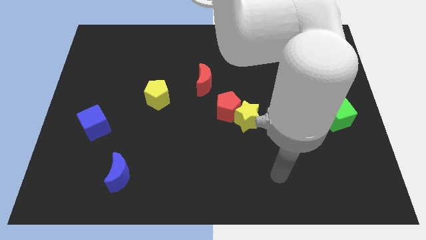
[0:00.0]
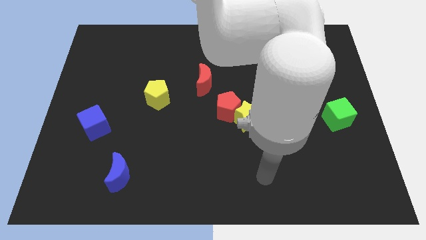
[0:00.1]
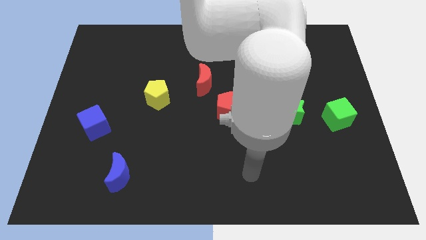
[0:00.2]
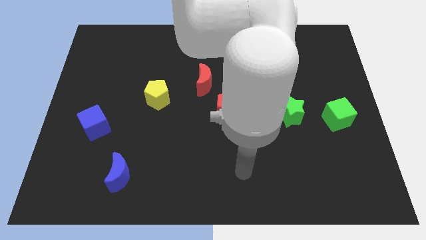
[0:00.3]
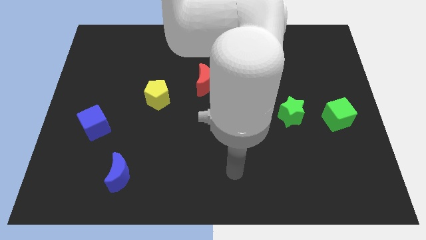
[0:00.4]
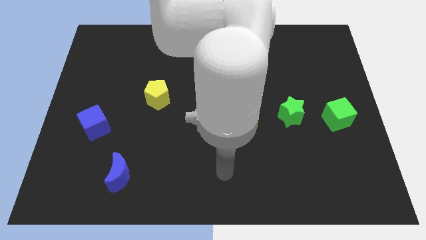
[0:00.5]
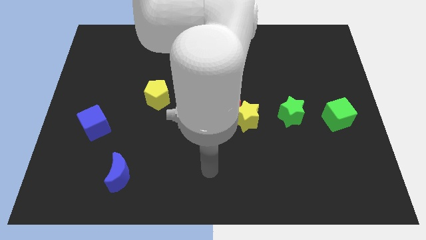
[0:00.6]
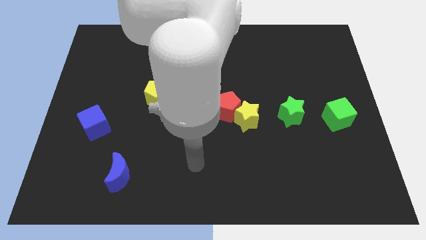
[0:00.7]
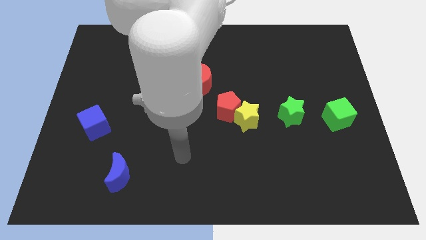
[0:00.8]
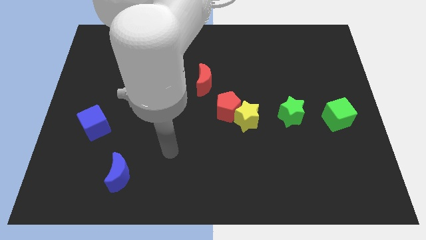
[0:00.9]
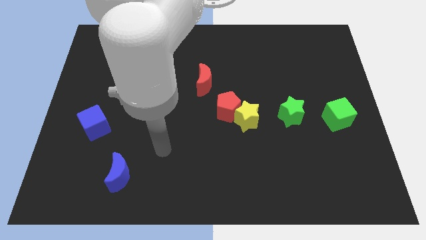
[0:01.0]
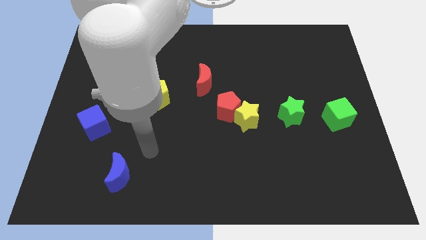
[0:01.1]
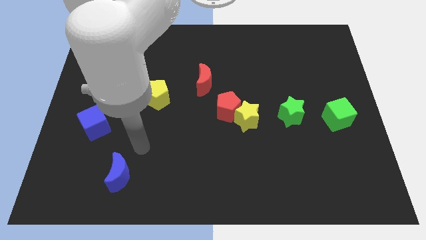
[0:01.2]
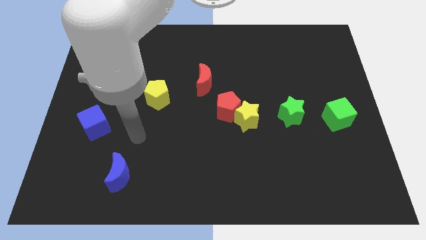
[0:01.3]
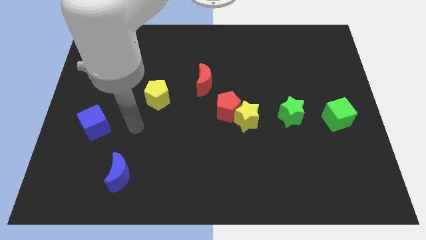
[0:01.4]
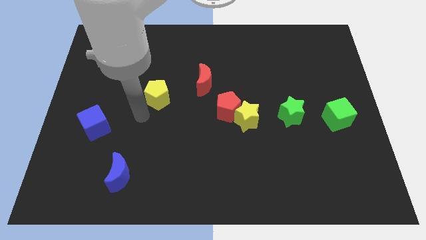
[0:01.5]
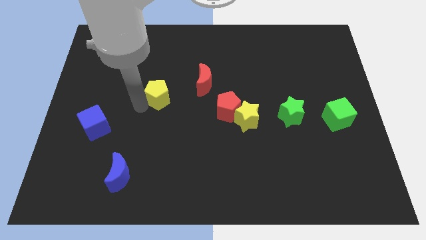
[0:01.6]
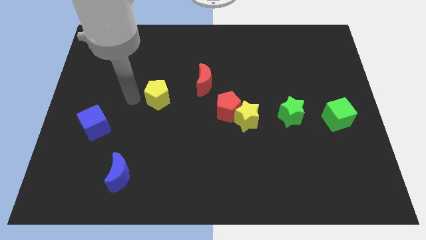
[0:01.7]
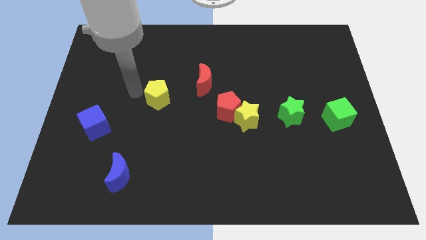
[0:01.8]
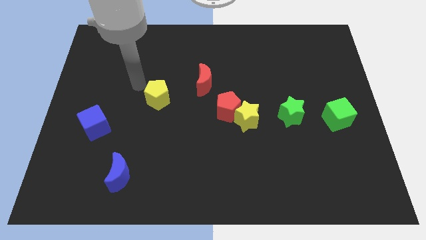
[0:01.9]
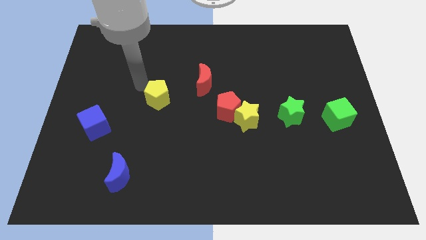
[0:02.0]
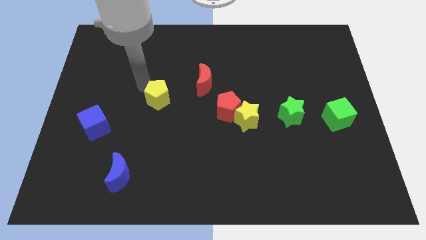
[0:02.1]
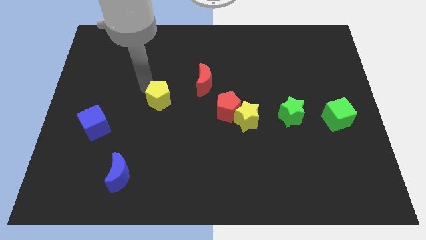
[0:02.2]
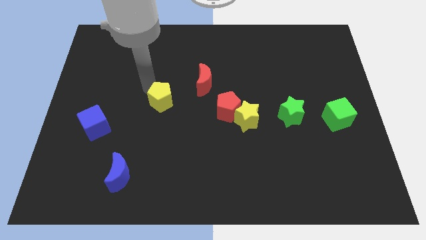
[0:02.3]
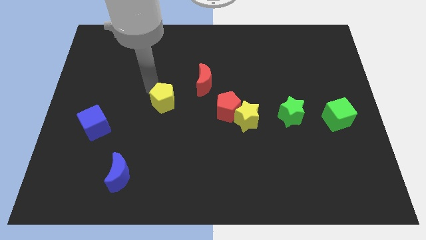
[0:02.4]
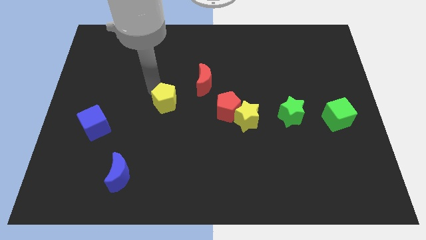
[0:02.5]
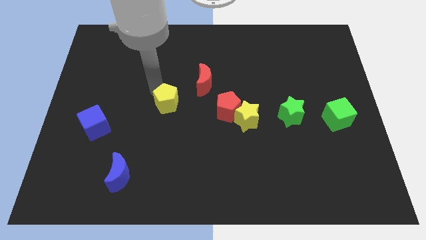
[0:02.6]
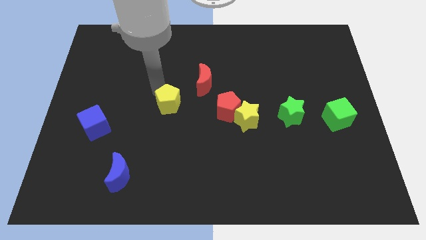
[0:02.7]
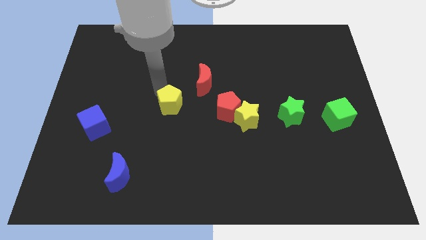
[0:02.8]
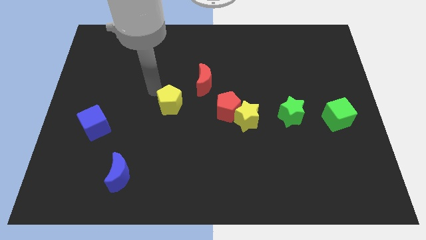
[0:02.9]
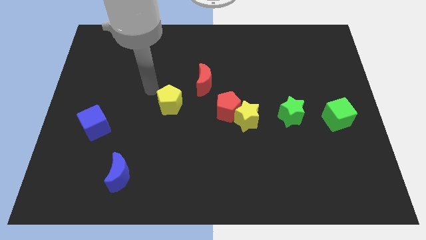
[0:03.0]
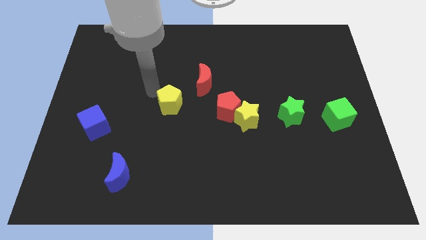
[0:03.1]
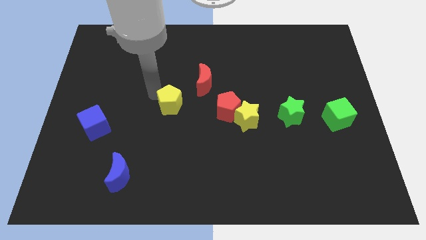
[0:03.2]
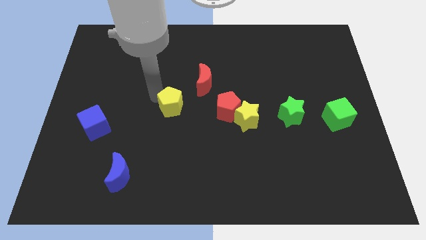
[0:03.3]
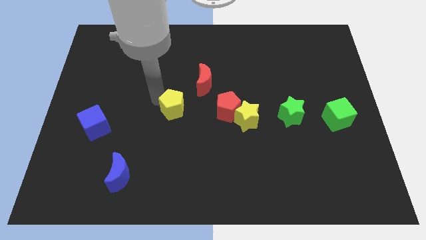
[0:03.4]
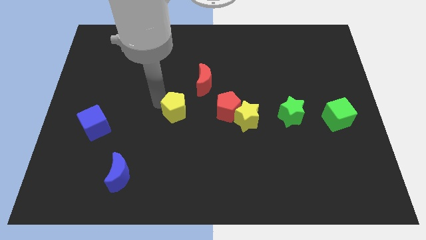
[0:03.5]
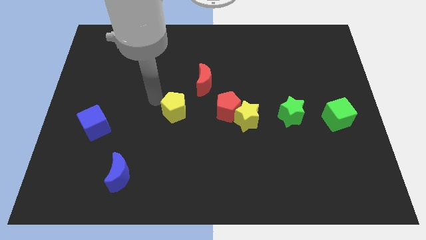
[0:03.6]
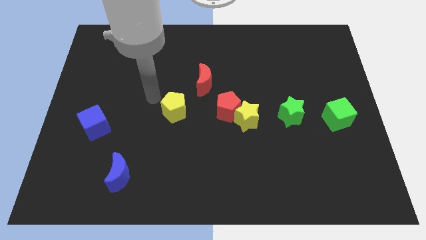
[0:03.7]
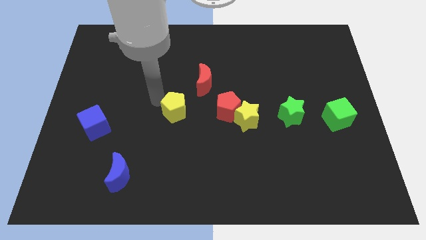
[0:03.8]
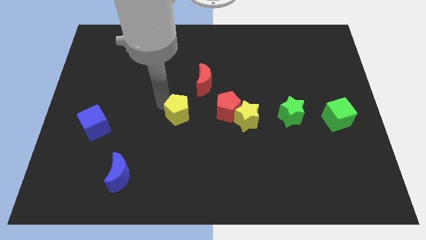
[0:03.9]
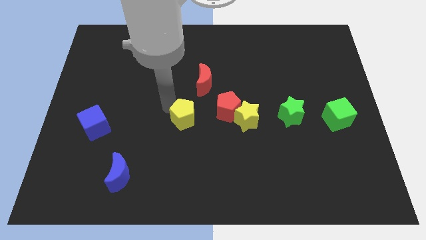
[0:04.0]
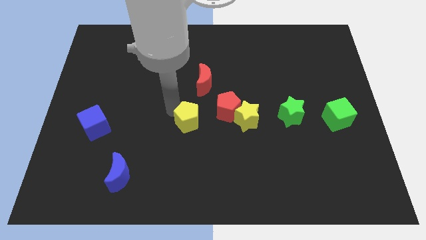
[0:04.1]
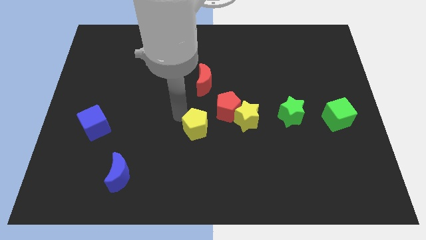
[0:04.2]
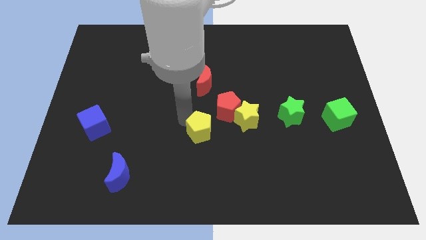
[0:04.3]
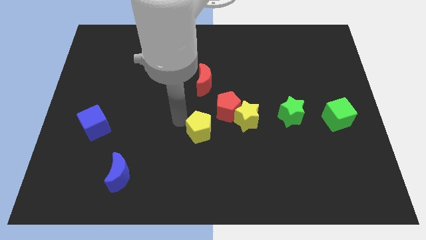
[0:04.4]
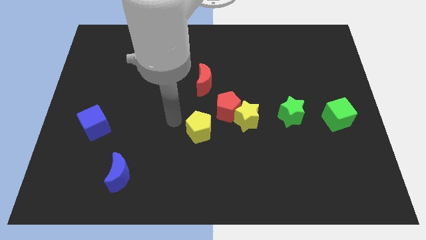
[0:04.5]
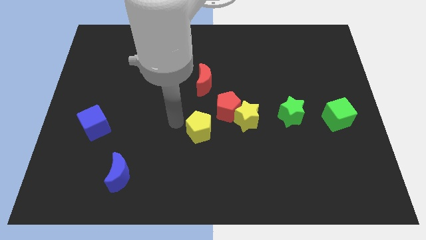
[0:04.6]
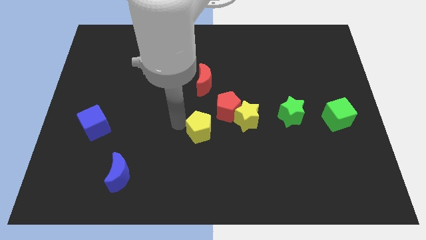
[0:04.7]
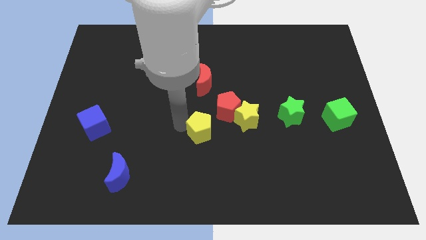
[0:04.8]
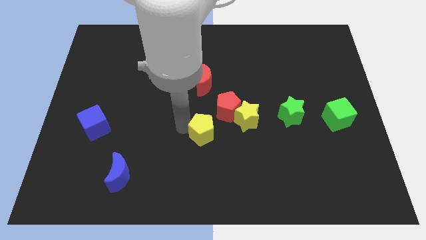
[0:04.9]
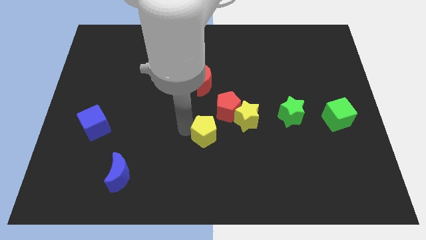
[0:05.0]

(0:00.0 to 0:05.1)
slide the yellow pentagon to the bottom left of the yellow star

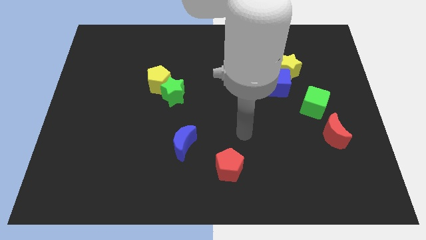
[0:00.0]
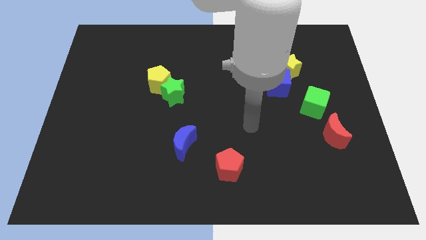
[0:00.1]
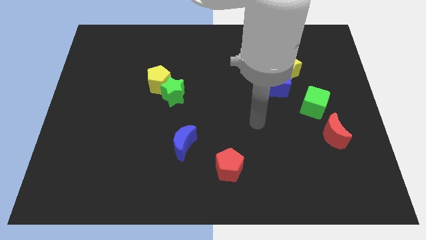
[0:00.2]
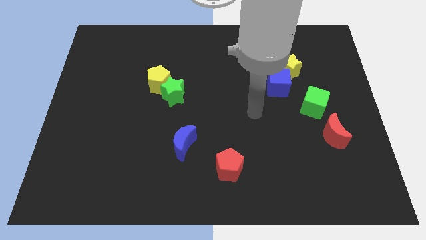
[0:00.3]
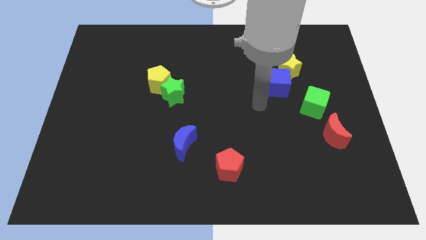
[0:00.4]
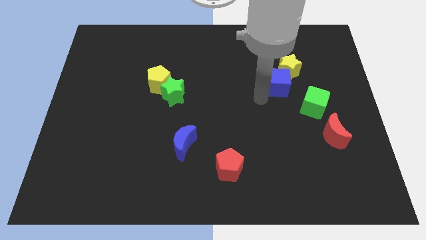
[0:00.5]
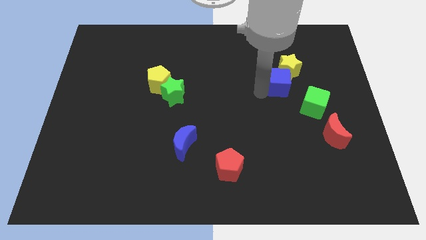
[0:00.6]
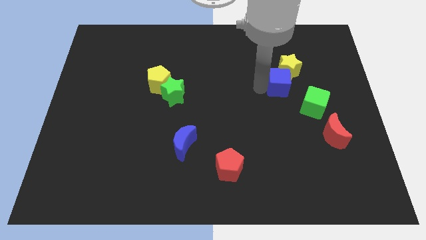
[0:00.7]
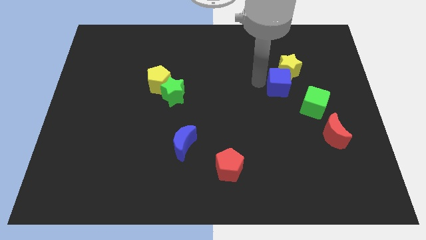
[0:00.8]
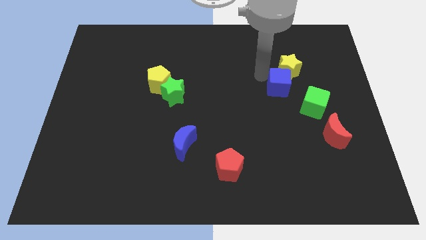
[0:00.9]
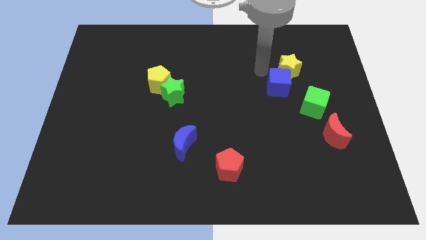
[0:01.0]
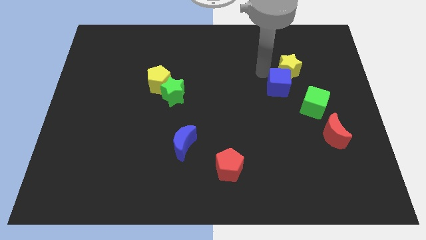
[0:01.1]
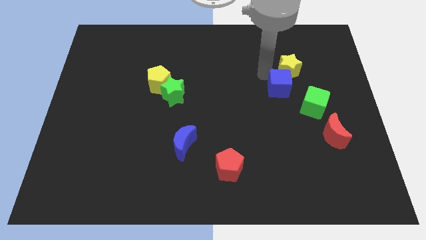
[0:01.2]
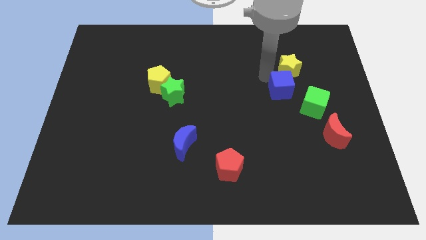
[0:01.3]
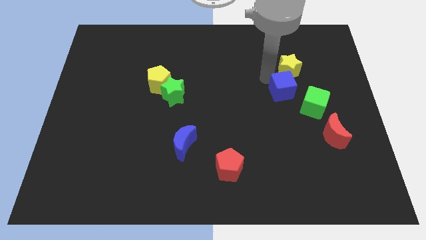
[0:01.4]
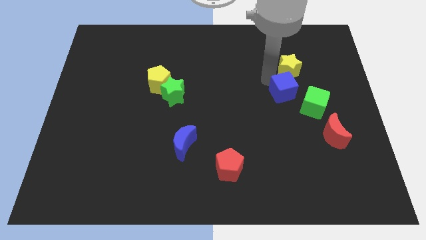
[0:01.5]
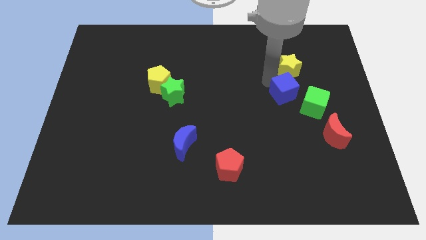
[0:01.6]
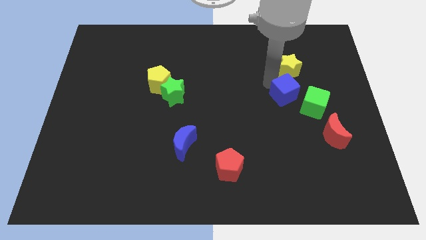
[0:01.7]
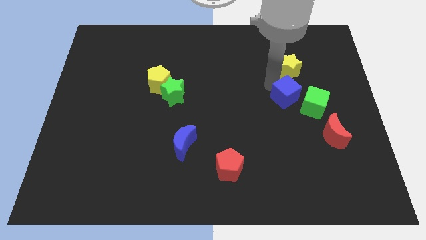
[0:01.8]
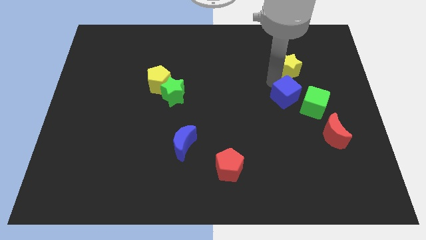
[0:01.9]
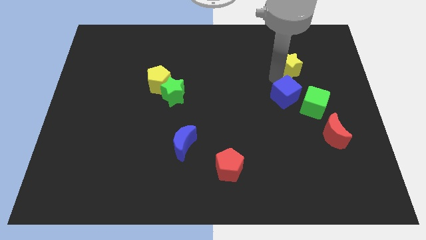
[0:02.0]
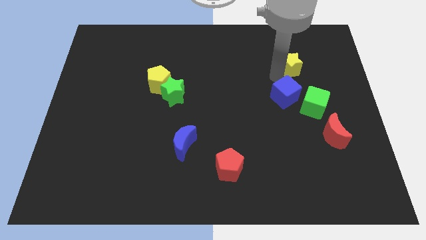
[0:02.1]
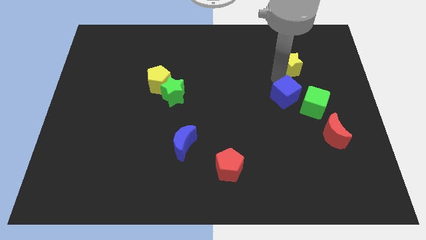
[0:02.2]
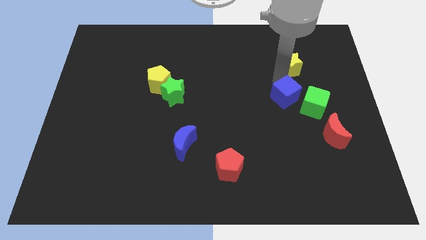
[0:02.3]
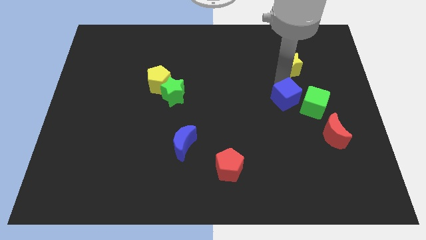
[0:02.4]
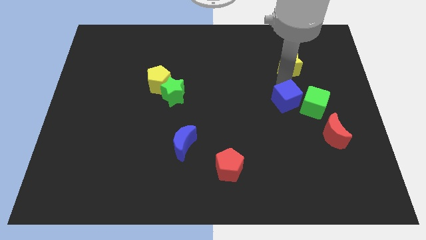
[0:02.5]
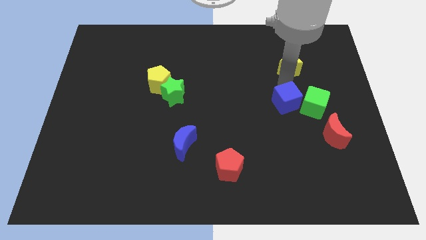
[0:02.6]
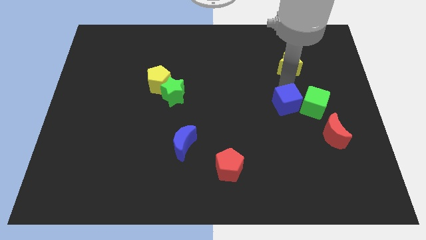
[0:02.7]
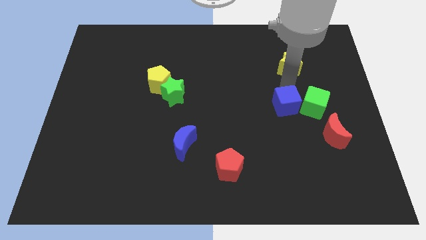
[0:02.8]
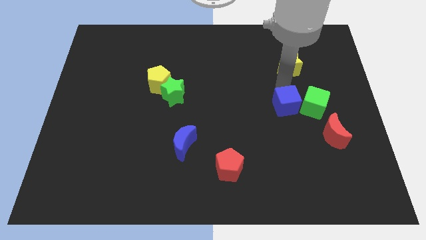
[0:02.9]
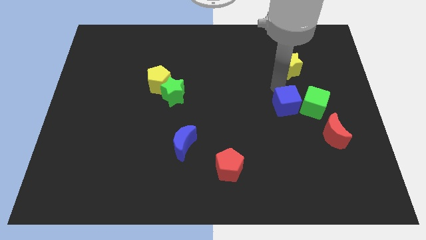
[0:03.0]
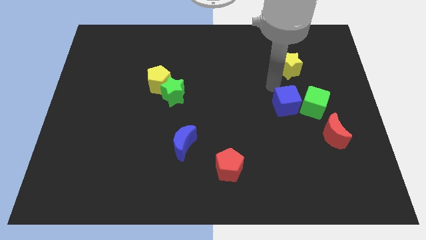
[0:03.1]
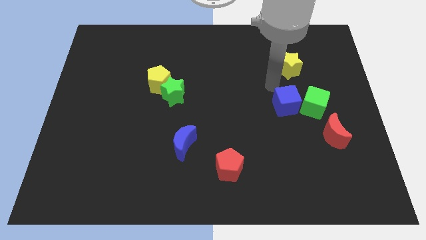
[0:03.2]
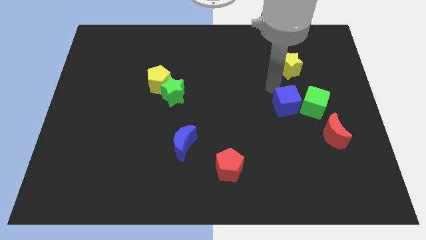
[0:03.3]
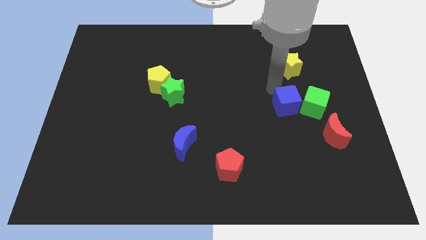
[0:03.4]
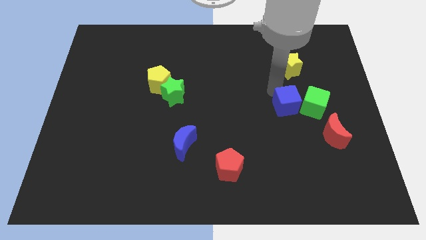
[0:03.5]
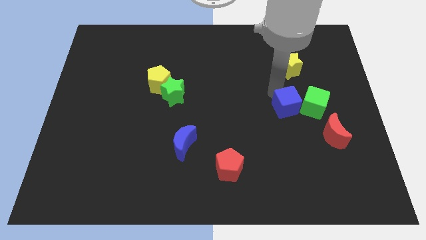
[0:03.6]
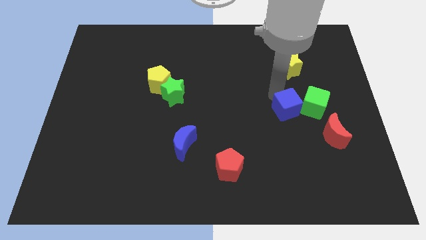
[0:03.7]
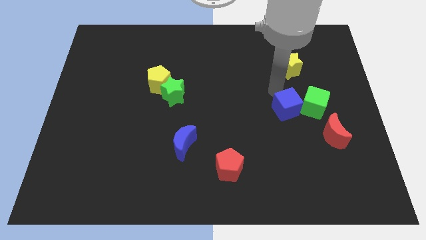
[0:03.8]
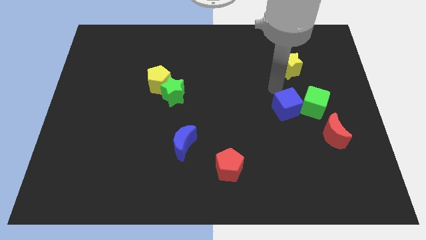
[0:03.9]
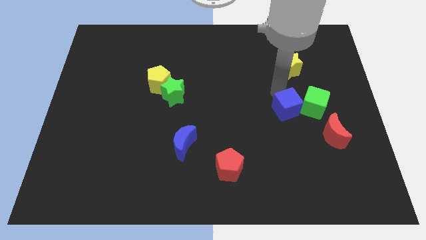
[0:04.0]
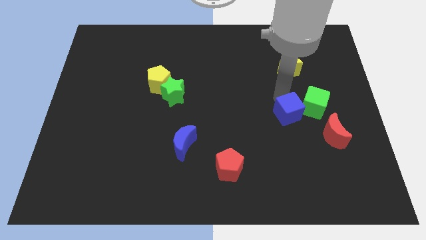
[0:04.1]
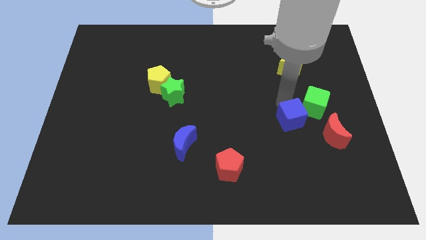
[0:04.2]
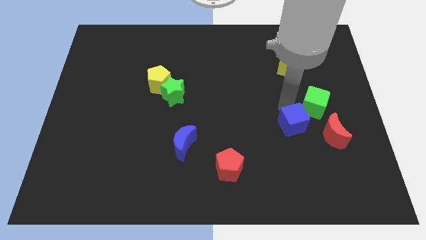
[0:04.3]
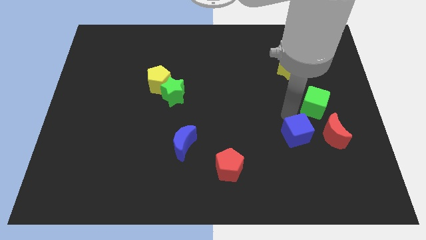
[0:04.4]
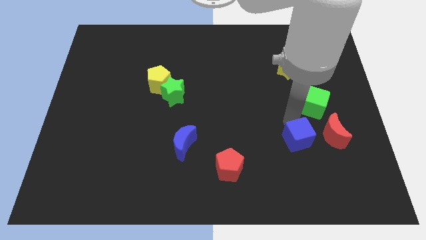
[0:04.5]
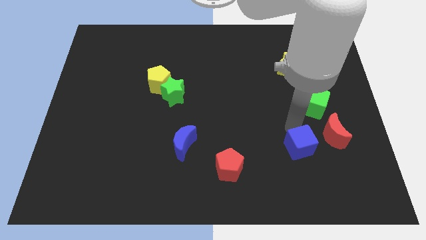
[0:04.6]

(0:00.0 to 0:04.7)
push the blue cube diagonally down and to the left of the red moon
